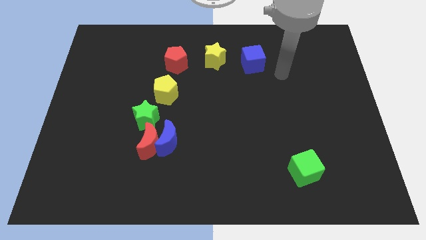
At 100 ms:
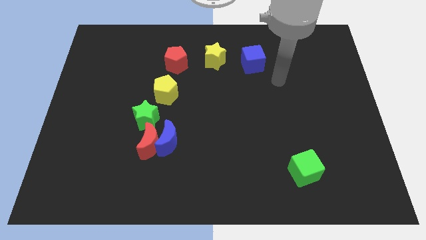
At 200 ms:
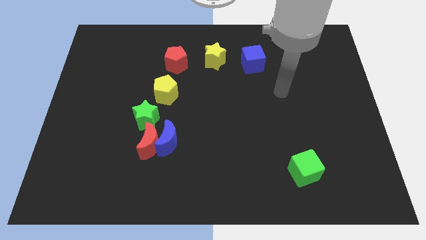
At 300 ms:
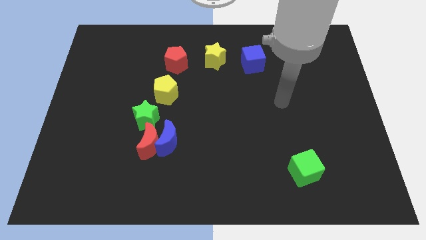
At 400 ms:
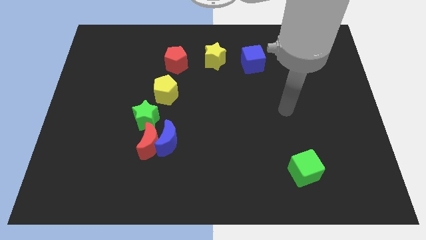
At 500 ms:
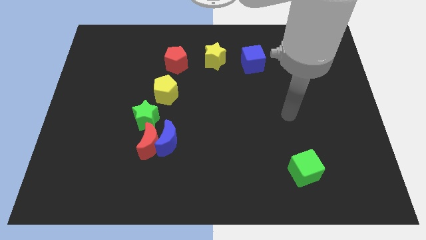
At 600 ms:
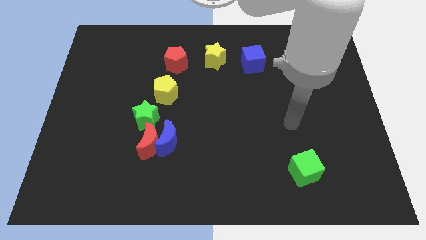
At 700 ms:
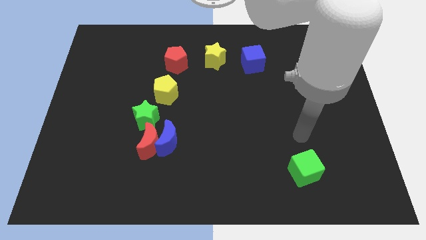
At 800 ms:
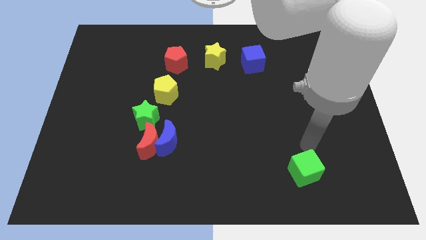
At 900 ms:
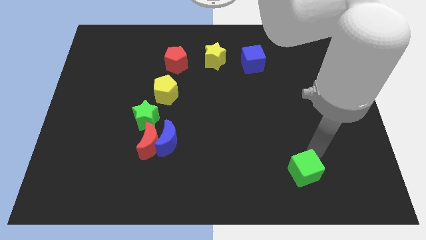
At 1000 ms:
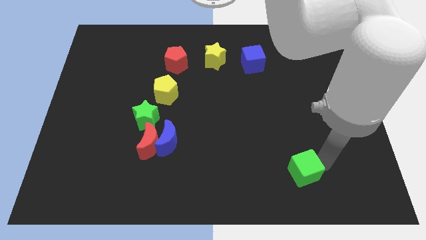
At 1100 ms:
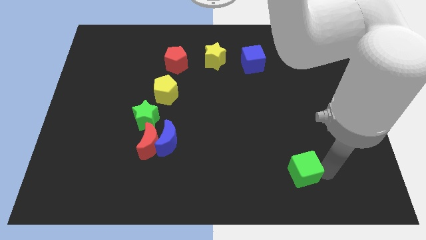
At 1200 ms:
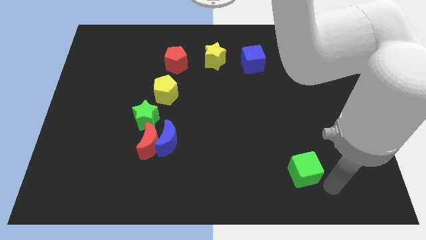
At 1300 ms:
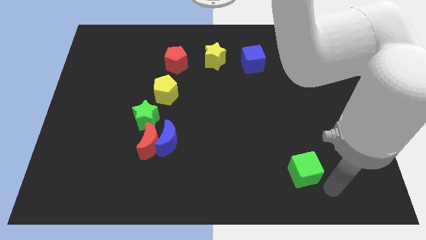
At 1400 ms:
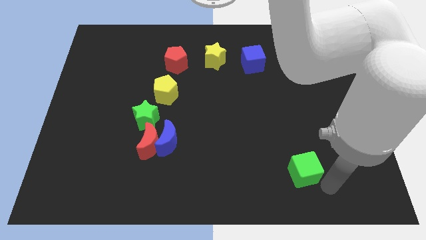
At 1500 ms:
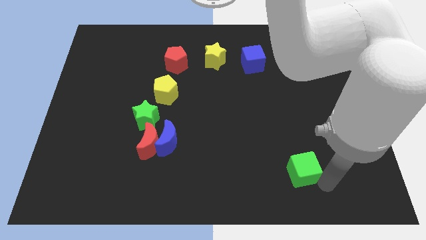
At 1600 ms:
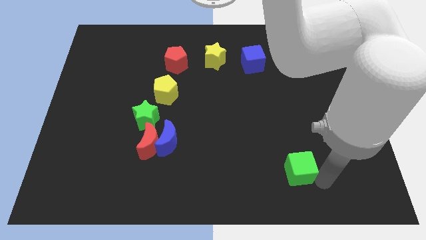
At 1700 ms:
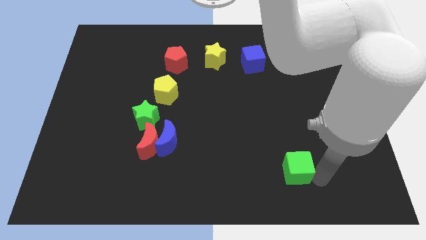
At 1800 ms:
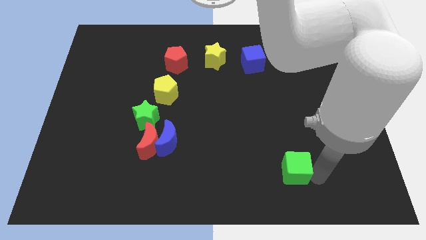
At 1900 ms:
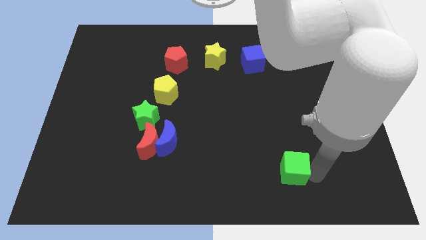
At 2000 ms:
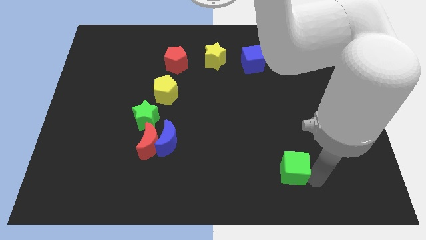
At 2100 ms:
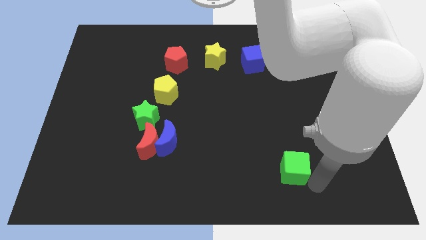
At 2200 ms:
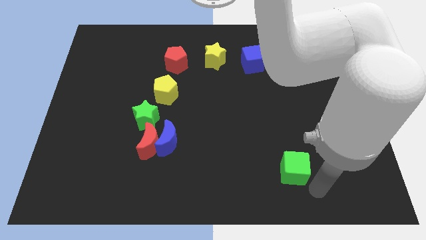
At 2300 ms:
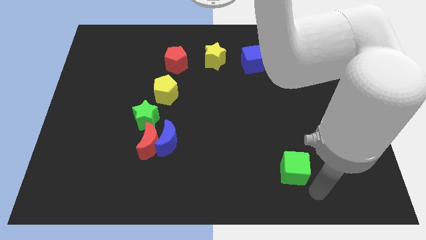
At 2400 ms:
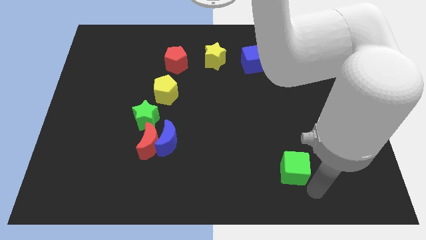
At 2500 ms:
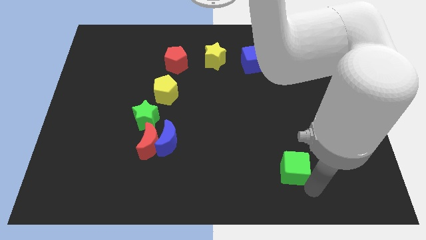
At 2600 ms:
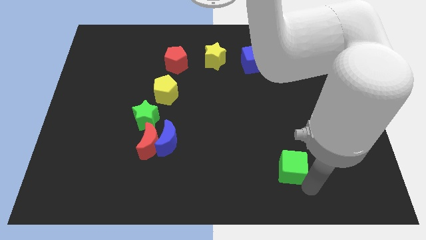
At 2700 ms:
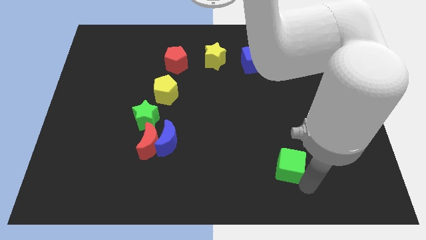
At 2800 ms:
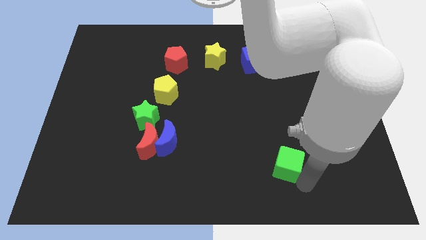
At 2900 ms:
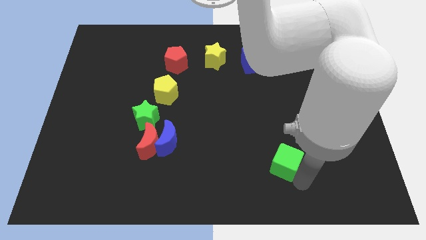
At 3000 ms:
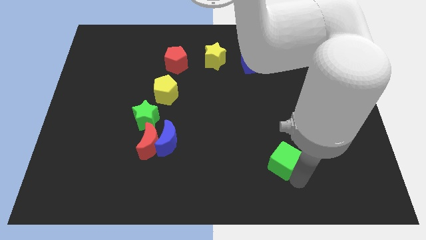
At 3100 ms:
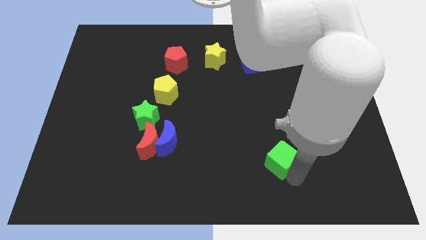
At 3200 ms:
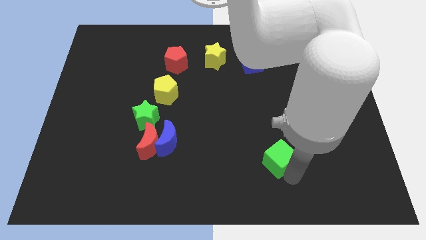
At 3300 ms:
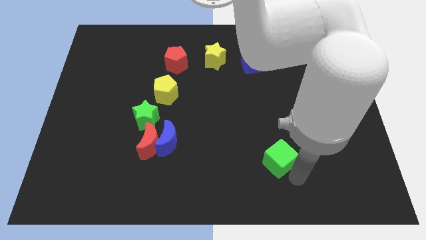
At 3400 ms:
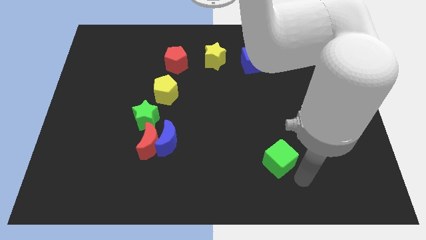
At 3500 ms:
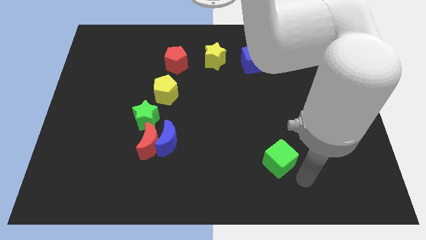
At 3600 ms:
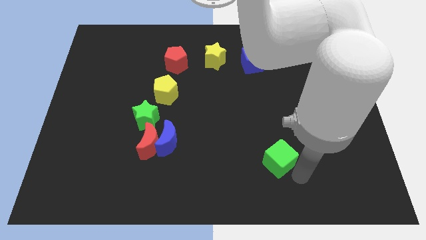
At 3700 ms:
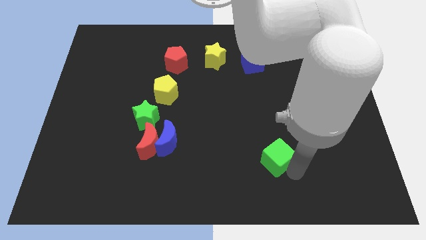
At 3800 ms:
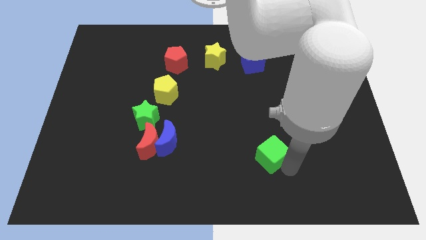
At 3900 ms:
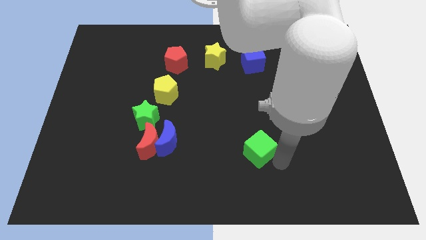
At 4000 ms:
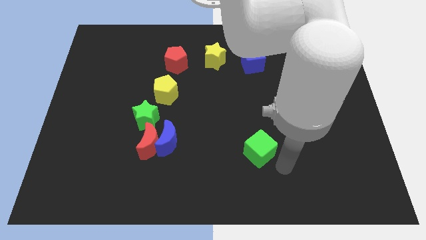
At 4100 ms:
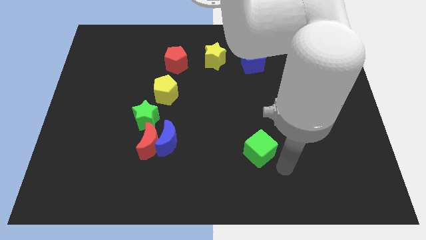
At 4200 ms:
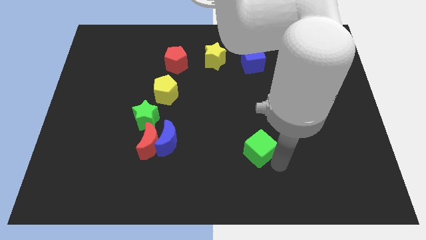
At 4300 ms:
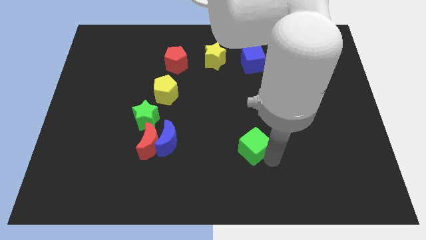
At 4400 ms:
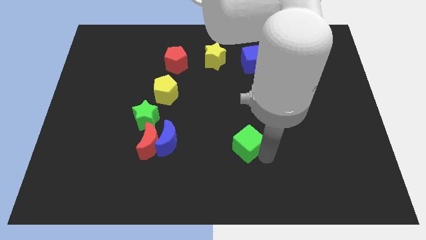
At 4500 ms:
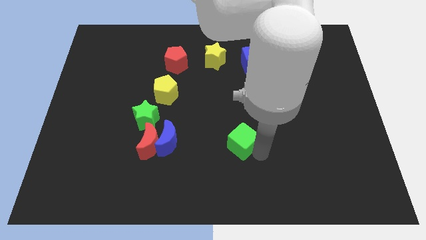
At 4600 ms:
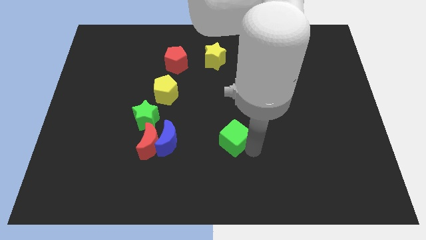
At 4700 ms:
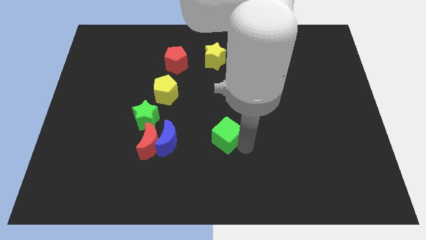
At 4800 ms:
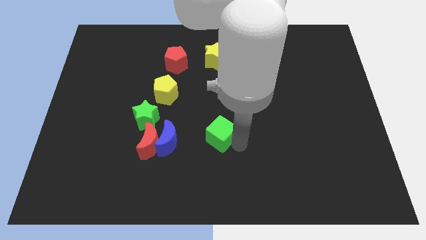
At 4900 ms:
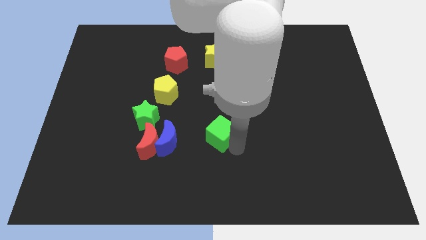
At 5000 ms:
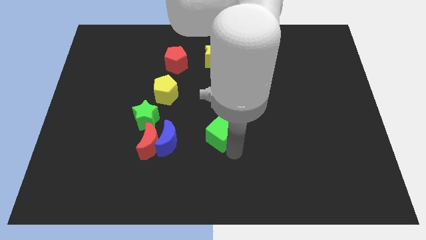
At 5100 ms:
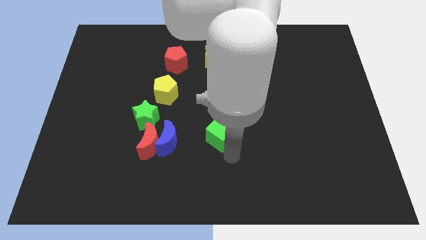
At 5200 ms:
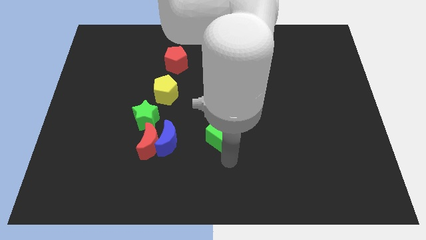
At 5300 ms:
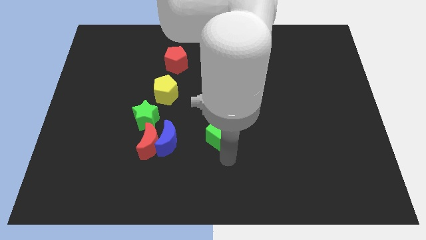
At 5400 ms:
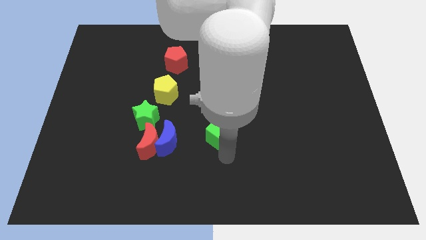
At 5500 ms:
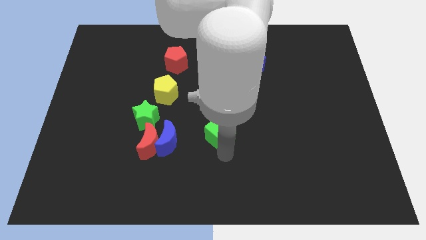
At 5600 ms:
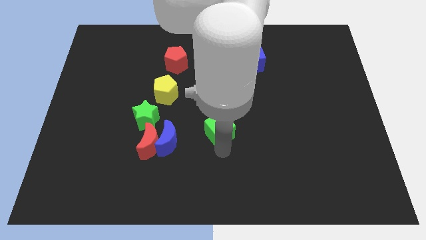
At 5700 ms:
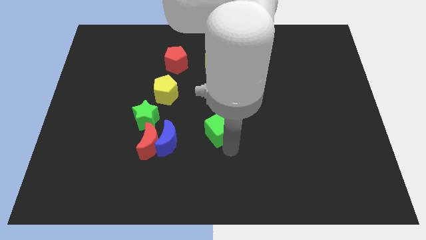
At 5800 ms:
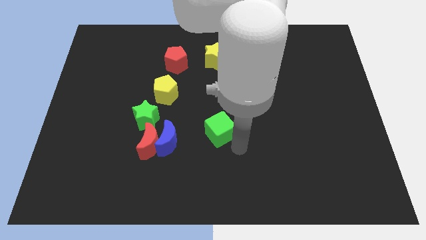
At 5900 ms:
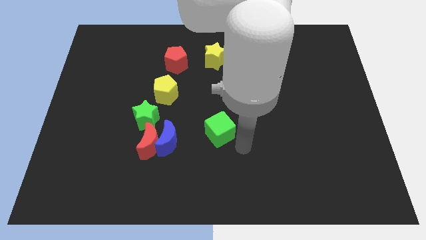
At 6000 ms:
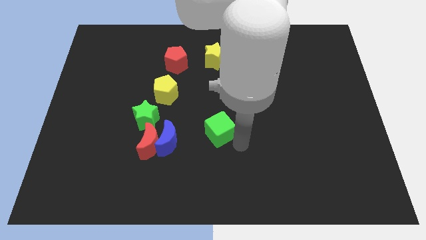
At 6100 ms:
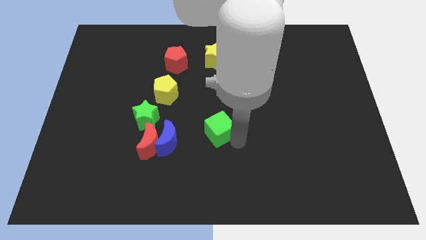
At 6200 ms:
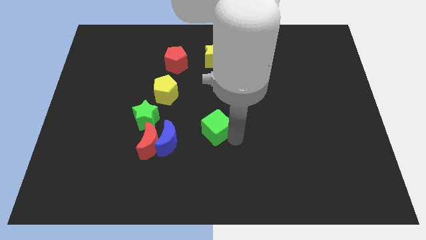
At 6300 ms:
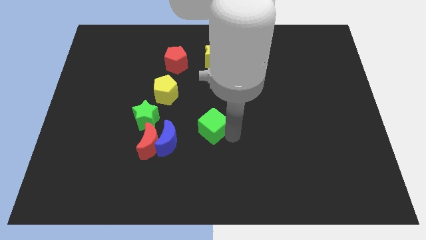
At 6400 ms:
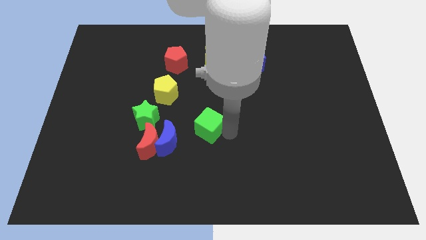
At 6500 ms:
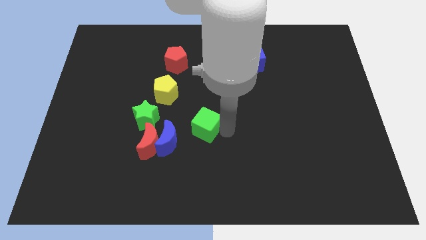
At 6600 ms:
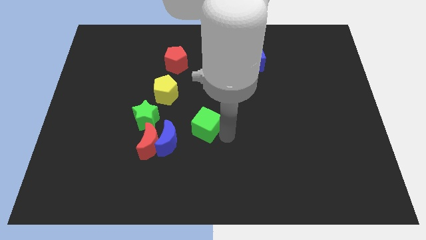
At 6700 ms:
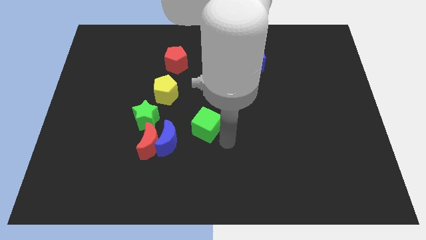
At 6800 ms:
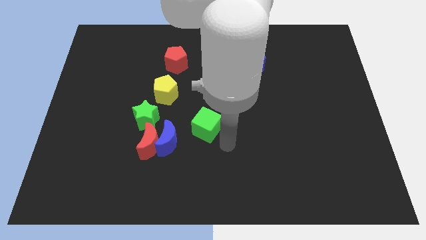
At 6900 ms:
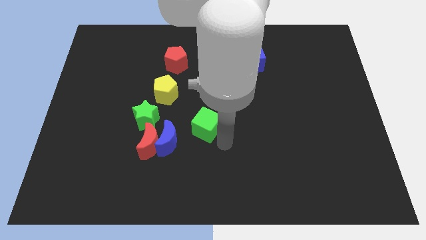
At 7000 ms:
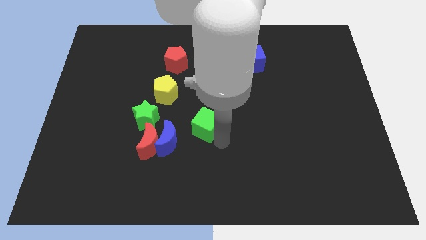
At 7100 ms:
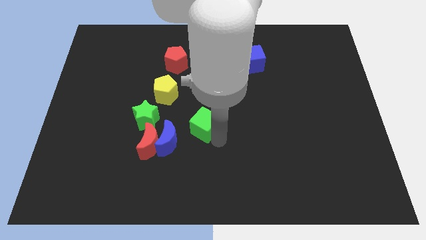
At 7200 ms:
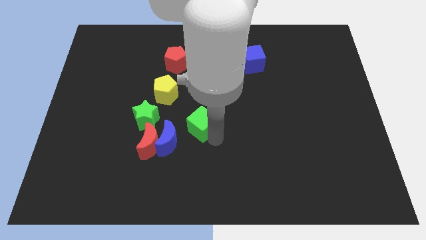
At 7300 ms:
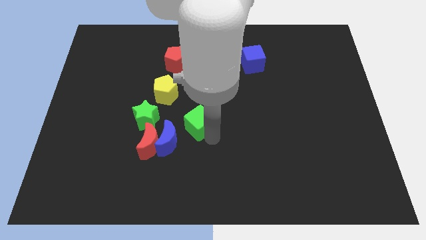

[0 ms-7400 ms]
push the green cube diagonally down and to the right of the yellow pentagon

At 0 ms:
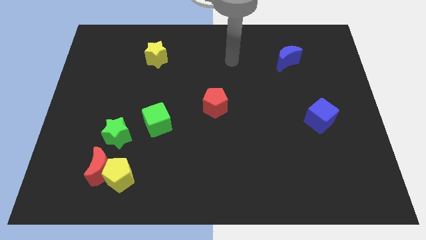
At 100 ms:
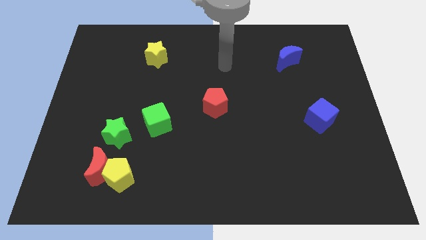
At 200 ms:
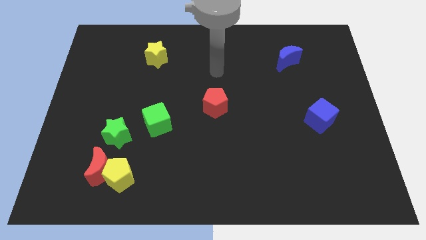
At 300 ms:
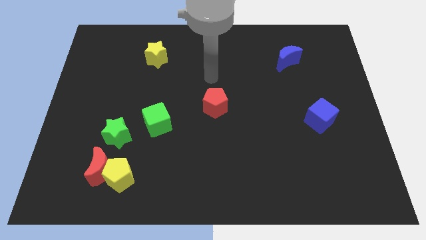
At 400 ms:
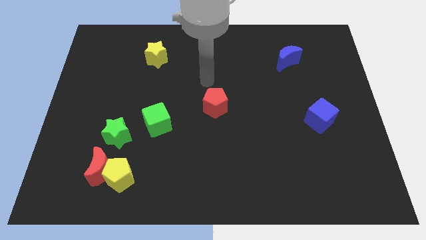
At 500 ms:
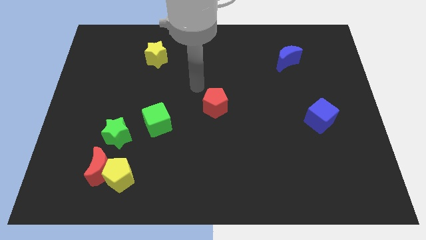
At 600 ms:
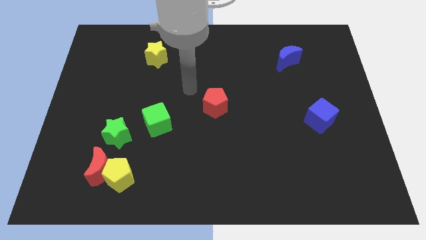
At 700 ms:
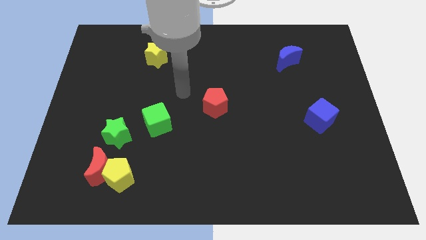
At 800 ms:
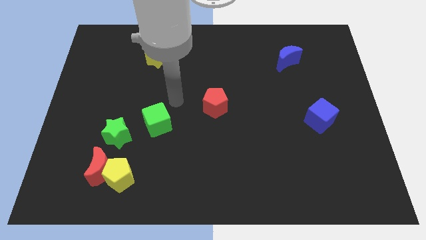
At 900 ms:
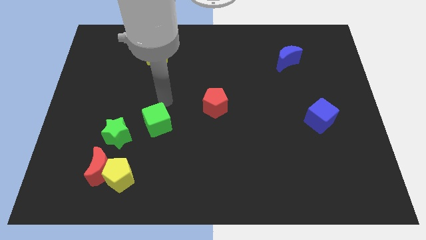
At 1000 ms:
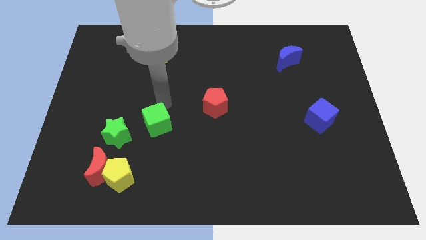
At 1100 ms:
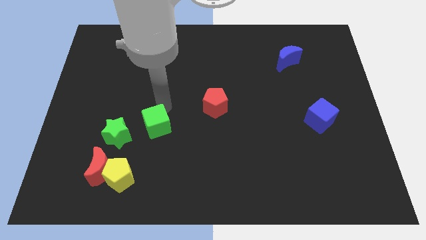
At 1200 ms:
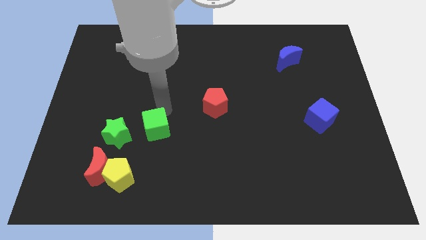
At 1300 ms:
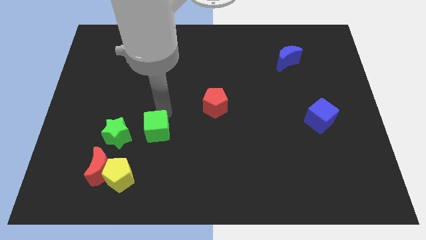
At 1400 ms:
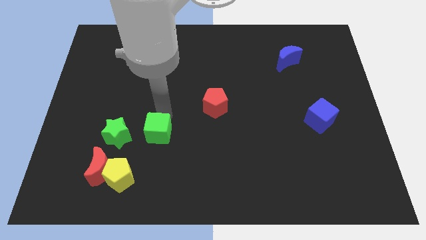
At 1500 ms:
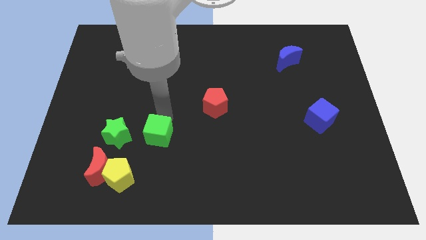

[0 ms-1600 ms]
move the green cube to the top right of the yellow pentagon
